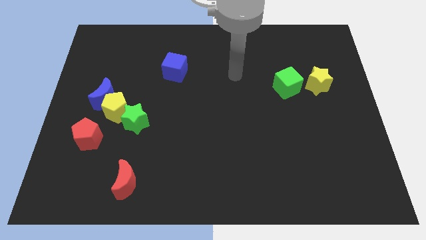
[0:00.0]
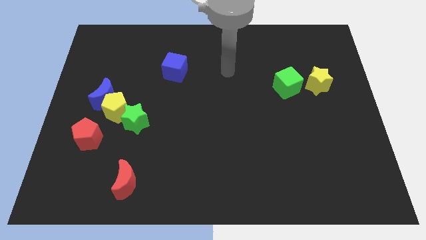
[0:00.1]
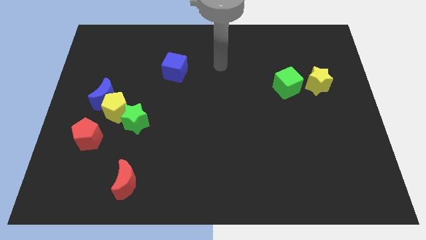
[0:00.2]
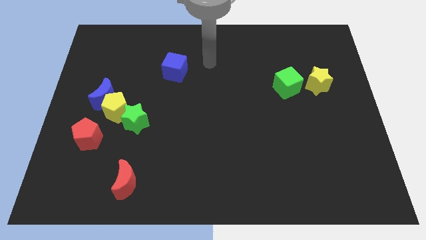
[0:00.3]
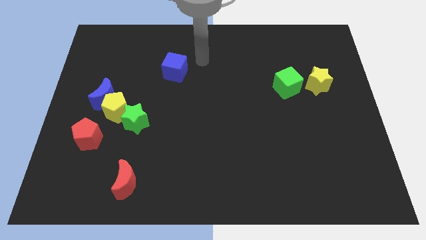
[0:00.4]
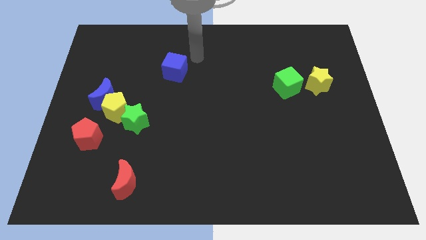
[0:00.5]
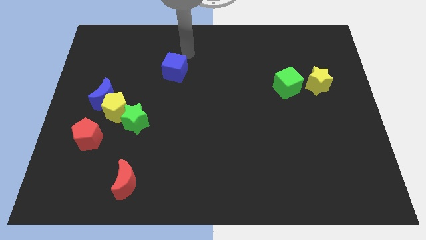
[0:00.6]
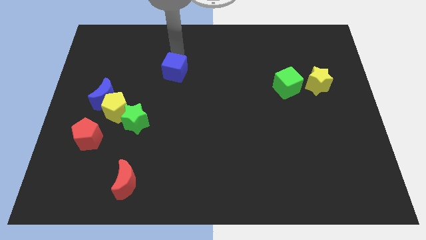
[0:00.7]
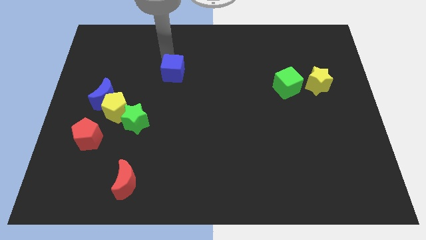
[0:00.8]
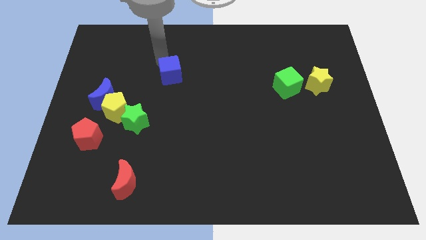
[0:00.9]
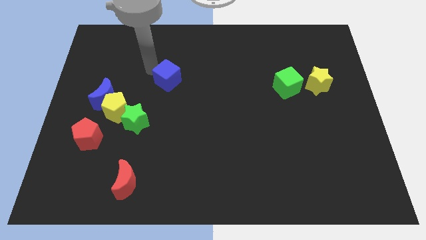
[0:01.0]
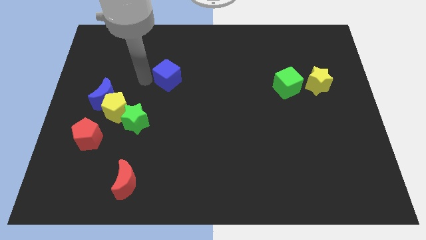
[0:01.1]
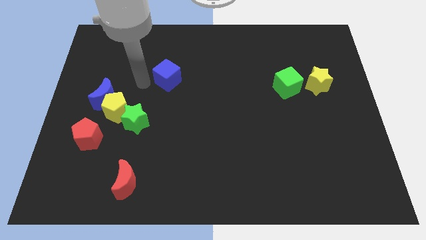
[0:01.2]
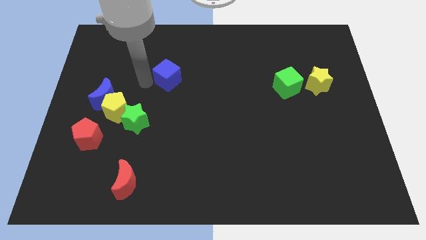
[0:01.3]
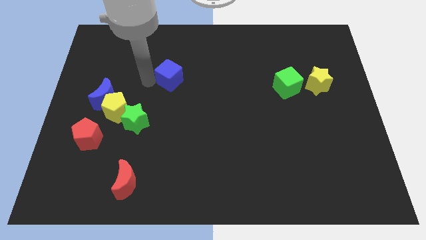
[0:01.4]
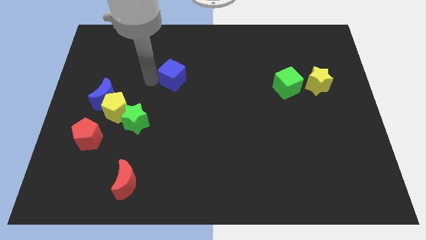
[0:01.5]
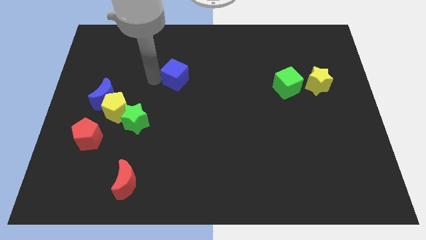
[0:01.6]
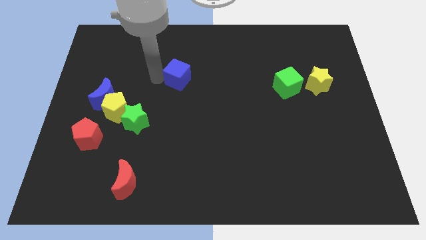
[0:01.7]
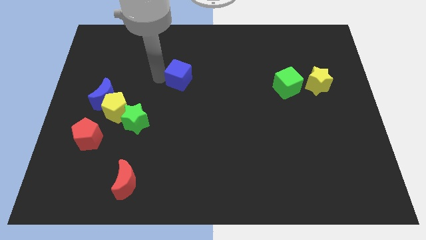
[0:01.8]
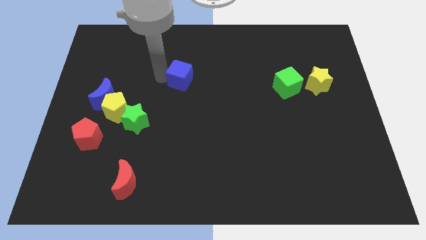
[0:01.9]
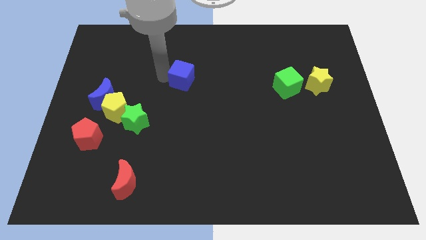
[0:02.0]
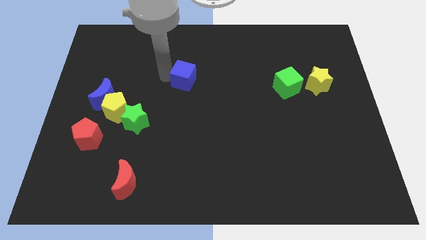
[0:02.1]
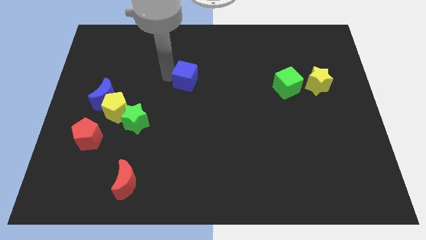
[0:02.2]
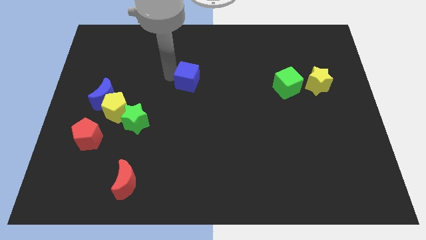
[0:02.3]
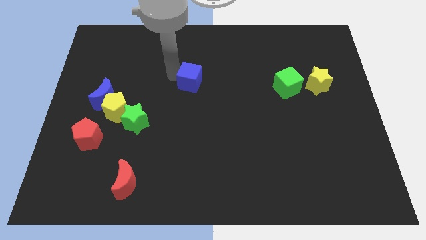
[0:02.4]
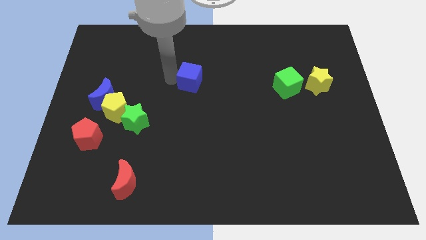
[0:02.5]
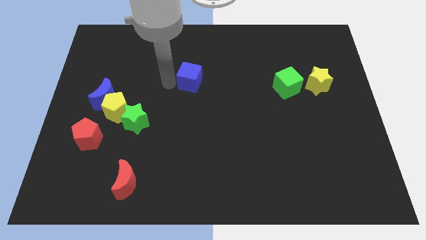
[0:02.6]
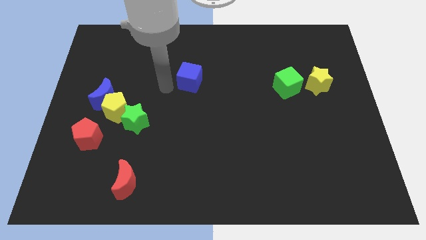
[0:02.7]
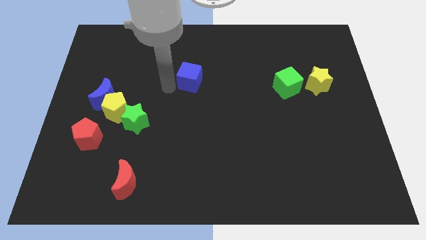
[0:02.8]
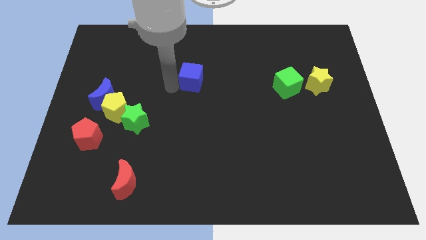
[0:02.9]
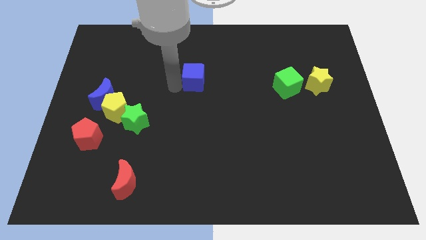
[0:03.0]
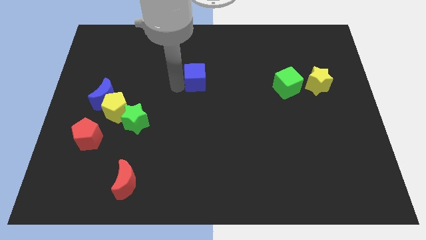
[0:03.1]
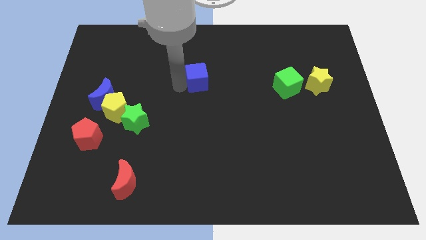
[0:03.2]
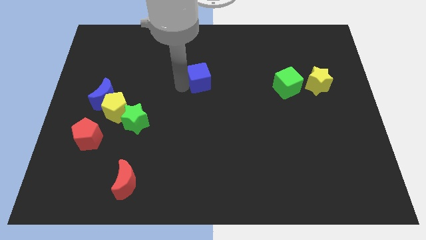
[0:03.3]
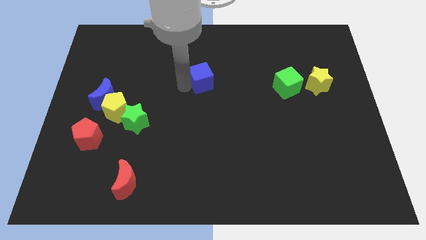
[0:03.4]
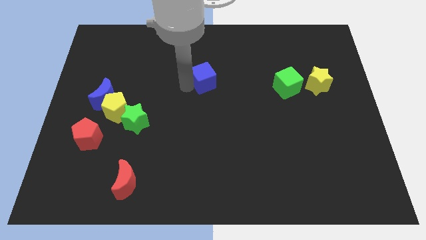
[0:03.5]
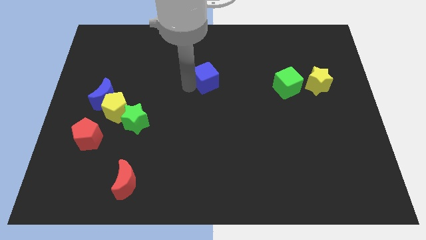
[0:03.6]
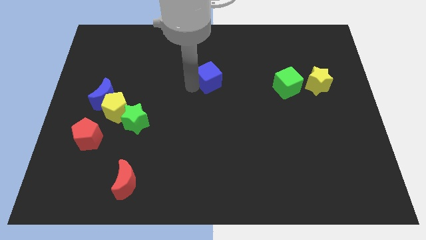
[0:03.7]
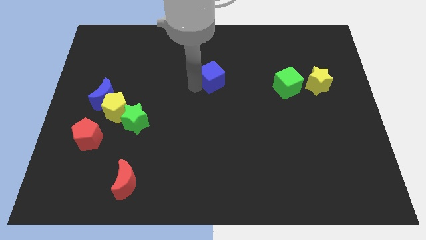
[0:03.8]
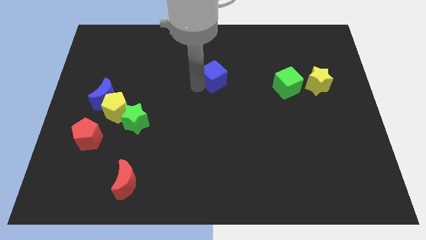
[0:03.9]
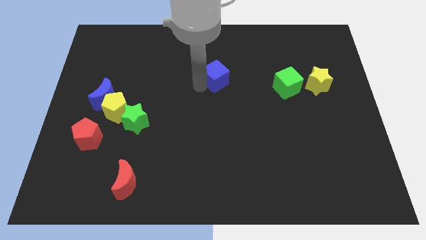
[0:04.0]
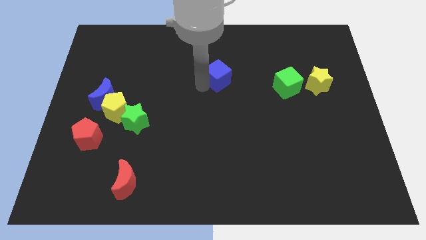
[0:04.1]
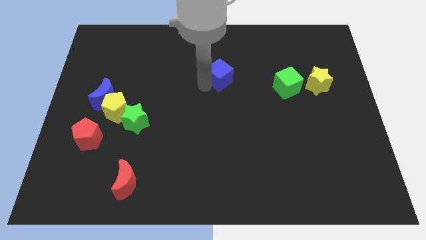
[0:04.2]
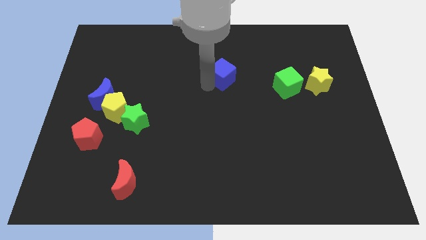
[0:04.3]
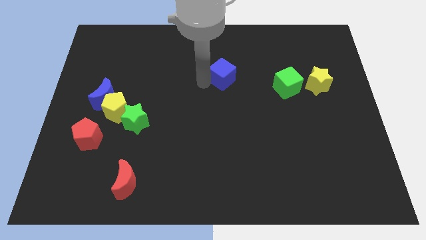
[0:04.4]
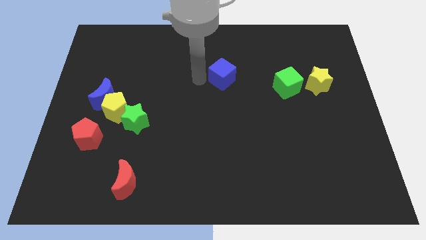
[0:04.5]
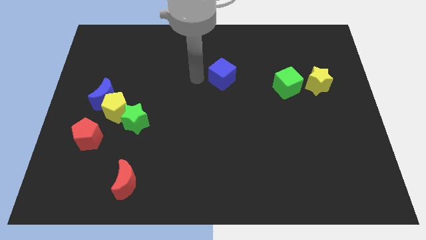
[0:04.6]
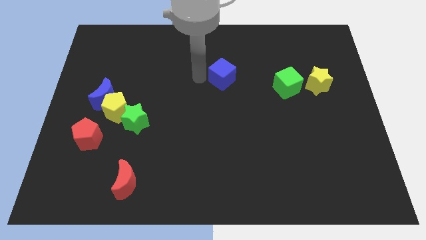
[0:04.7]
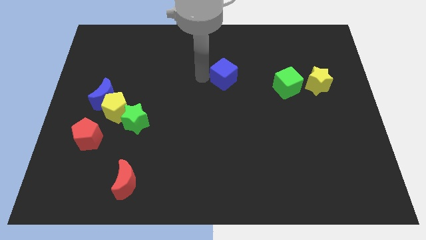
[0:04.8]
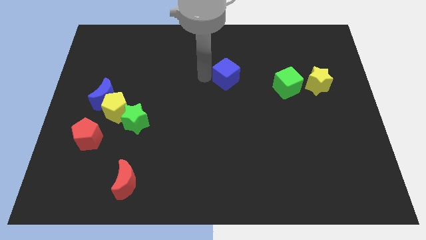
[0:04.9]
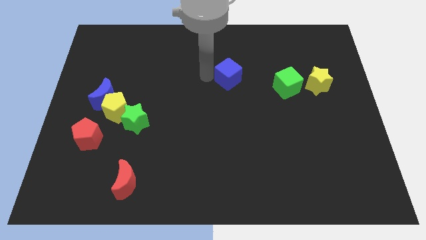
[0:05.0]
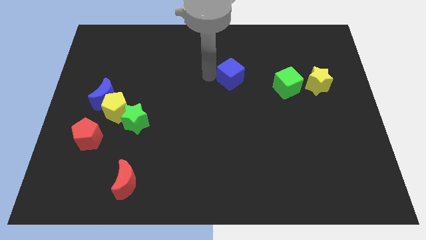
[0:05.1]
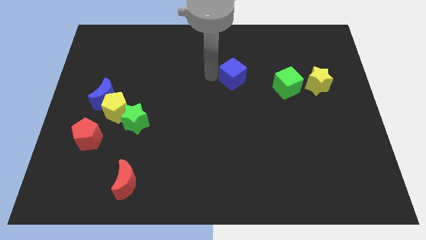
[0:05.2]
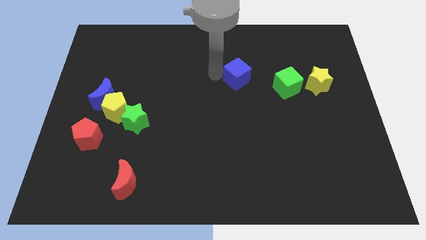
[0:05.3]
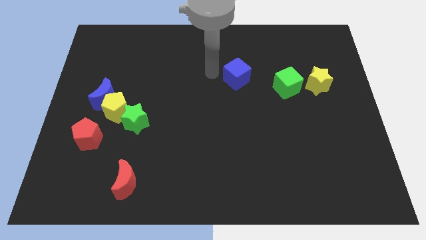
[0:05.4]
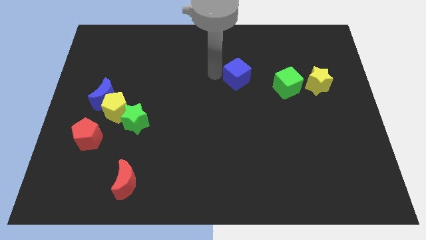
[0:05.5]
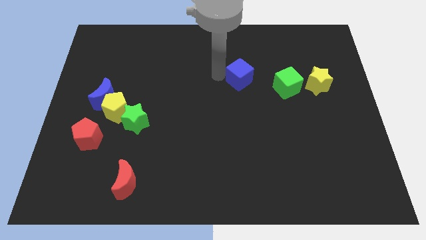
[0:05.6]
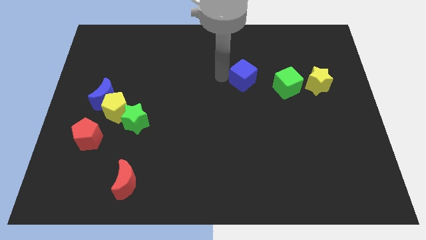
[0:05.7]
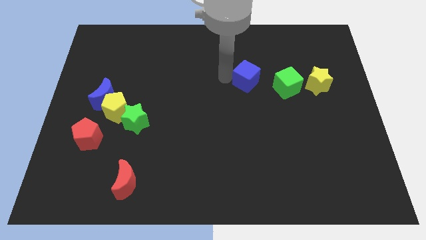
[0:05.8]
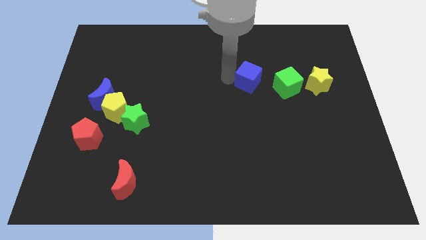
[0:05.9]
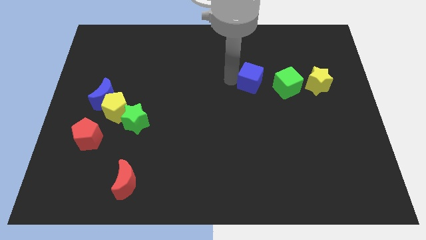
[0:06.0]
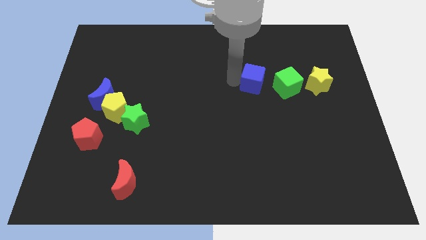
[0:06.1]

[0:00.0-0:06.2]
move the blue cube to the left side of the yellow star

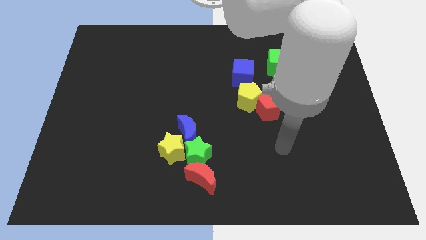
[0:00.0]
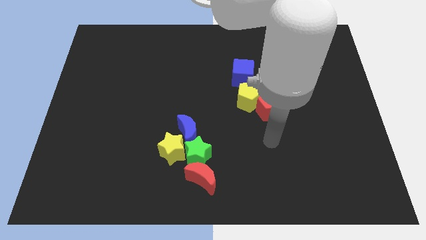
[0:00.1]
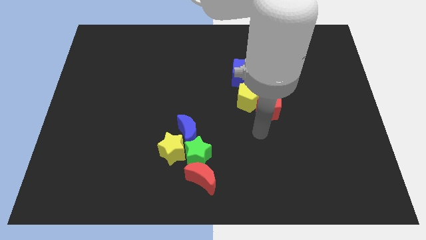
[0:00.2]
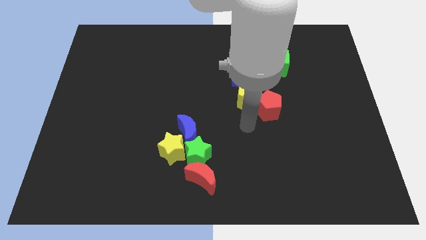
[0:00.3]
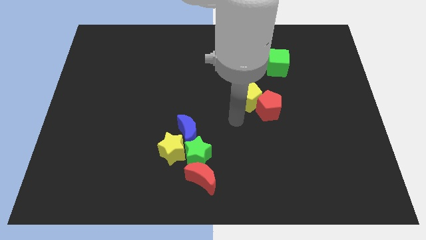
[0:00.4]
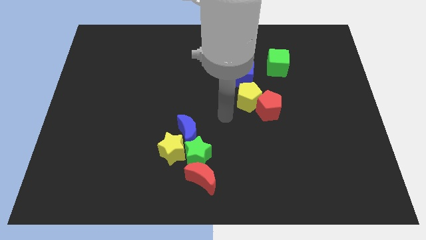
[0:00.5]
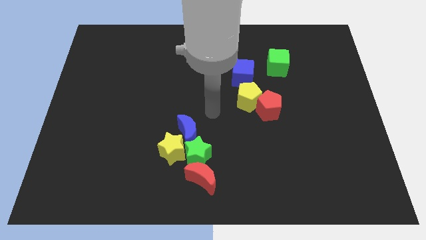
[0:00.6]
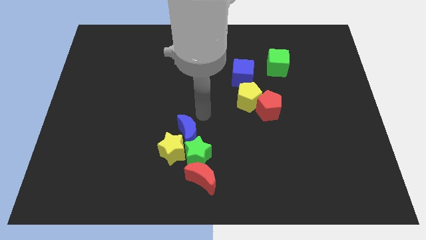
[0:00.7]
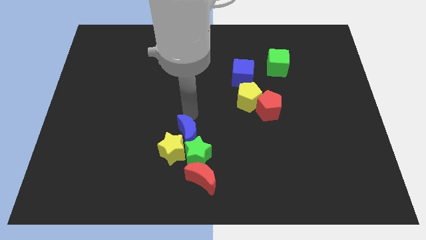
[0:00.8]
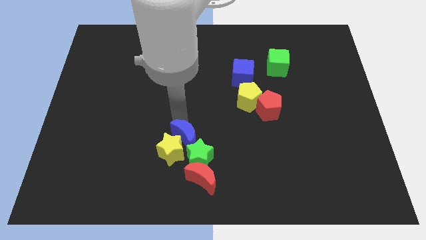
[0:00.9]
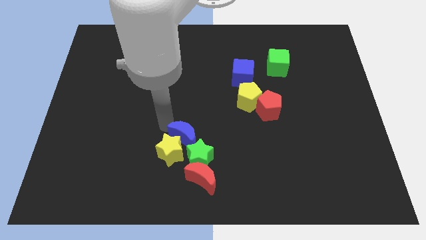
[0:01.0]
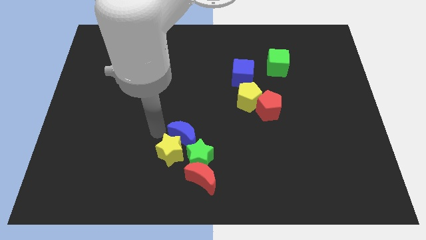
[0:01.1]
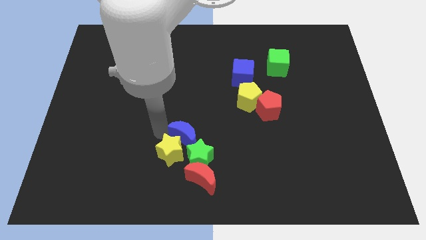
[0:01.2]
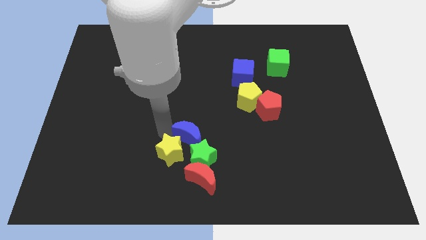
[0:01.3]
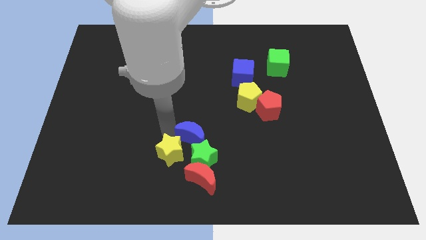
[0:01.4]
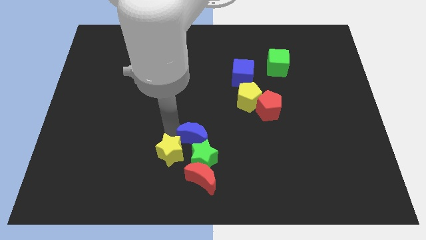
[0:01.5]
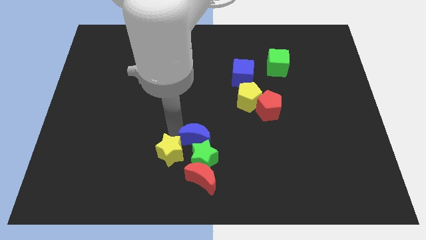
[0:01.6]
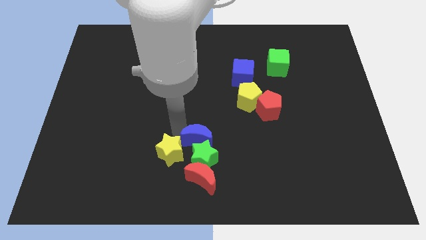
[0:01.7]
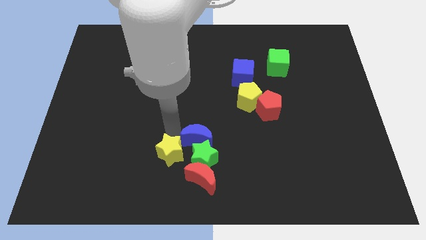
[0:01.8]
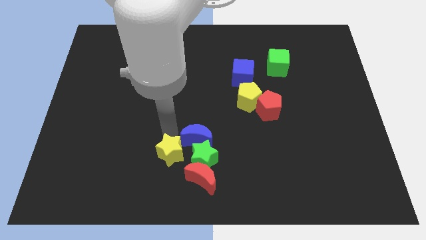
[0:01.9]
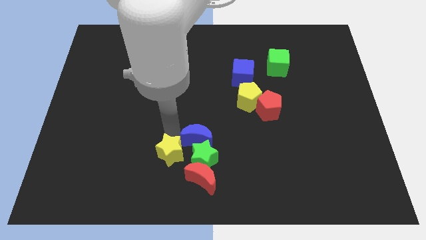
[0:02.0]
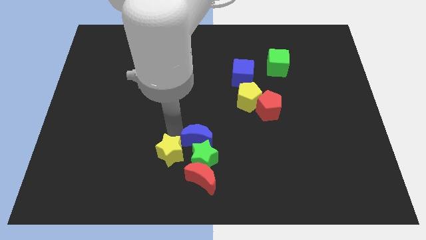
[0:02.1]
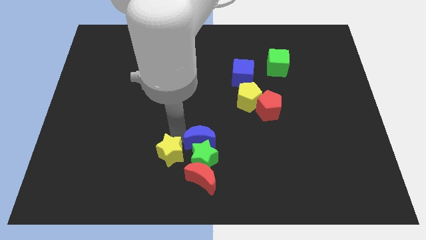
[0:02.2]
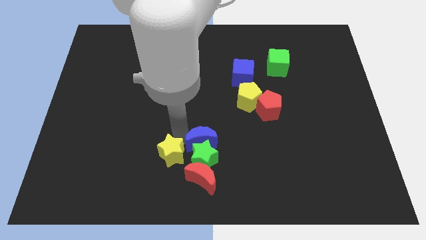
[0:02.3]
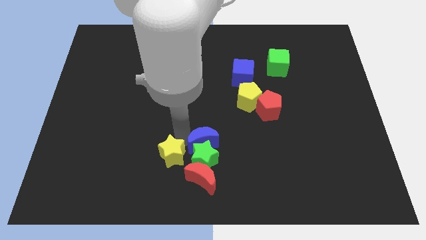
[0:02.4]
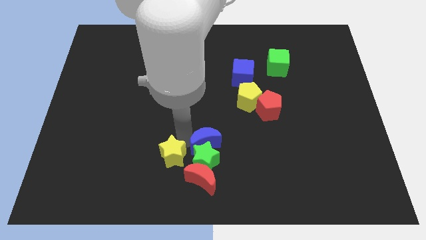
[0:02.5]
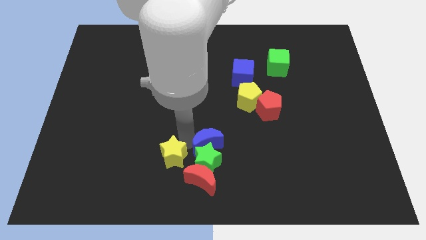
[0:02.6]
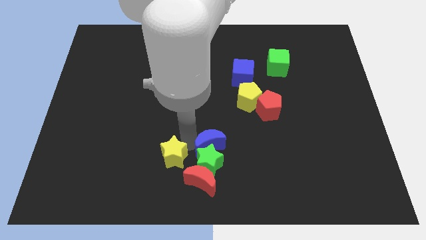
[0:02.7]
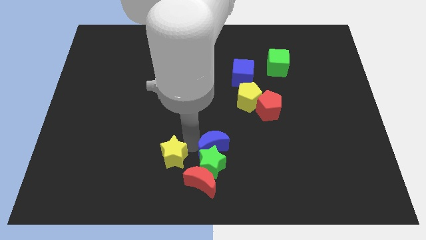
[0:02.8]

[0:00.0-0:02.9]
push the blue moon diagonally up and to the right of the red moon
